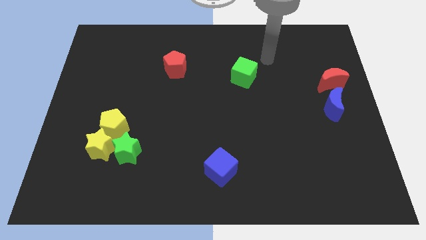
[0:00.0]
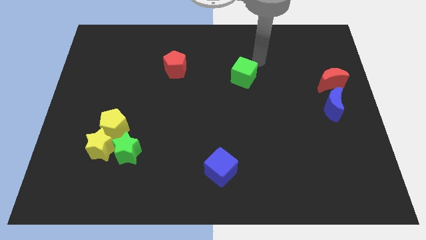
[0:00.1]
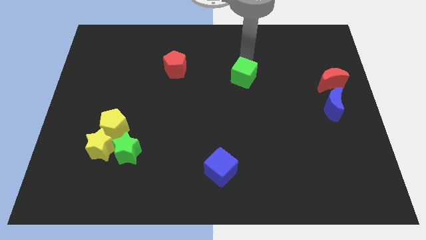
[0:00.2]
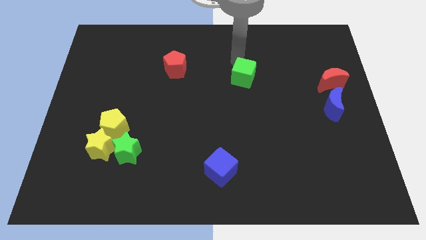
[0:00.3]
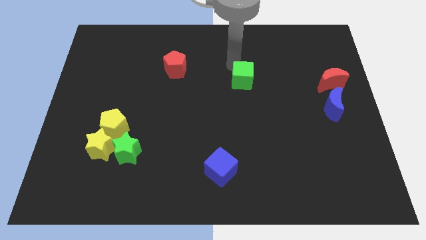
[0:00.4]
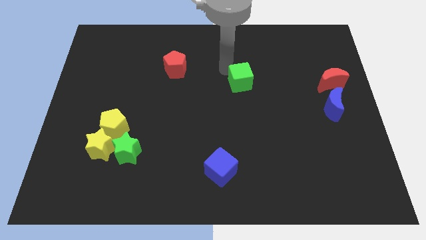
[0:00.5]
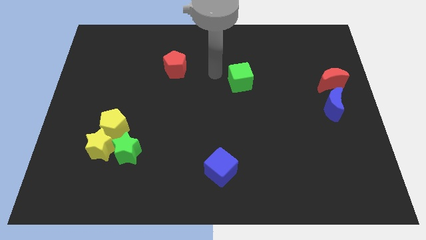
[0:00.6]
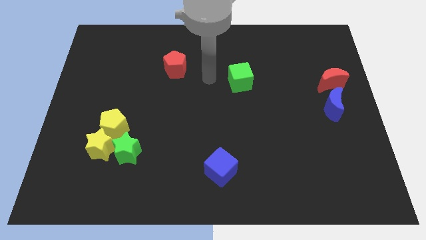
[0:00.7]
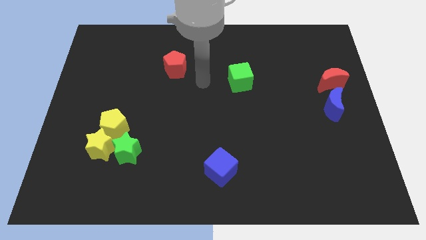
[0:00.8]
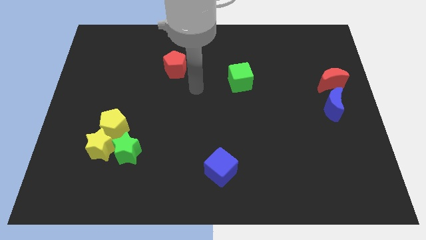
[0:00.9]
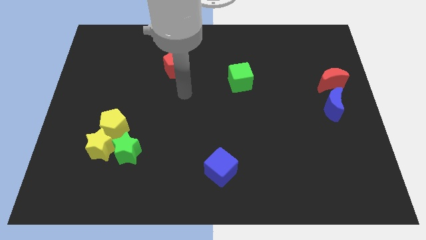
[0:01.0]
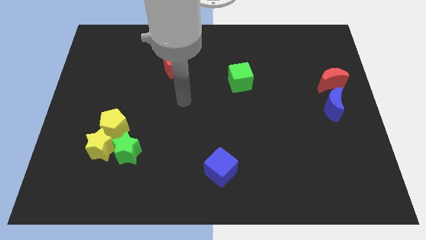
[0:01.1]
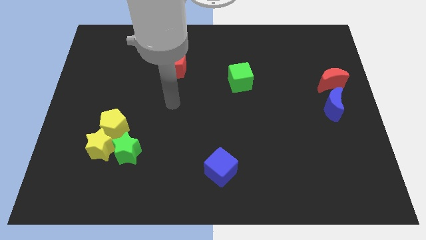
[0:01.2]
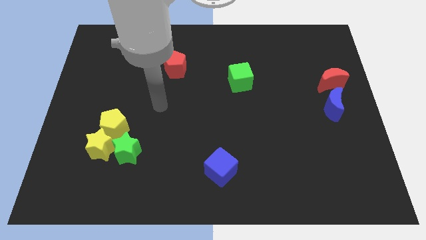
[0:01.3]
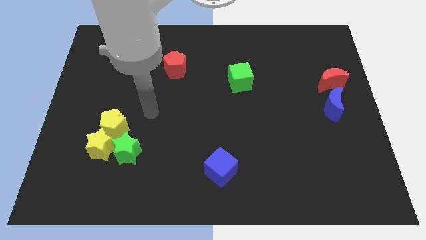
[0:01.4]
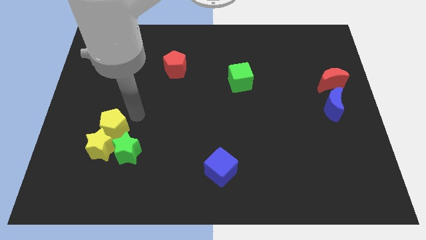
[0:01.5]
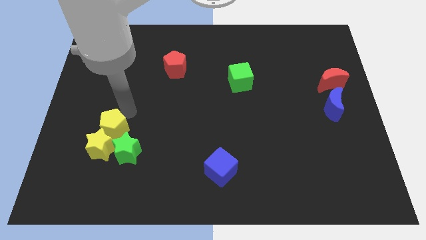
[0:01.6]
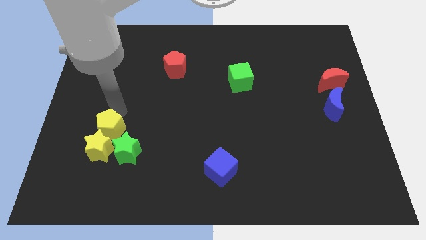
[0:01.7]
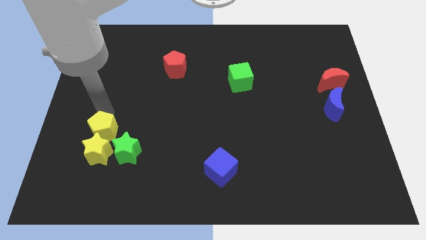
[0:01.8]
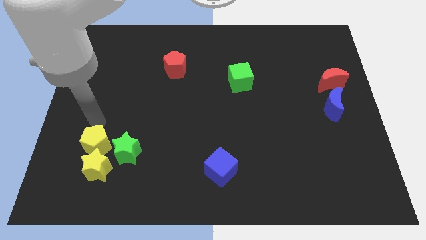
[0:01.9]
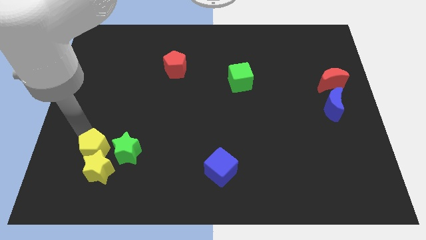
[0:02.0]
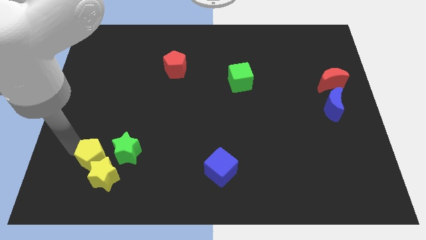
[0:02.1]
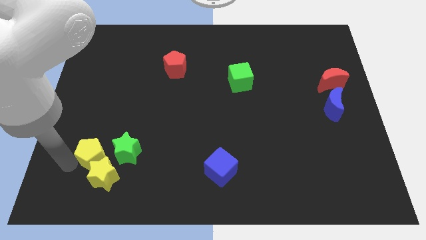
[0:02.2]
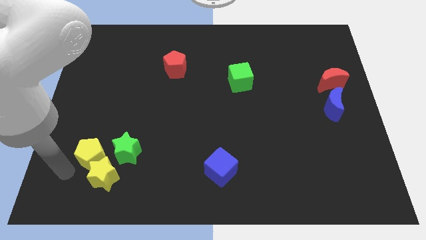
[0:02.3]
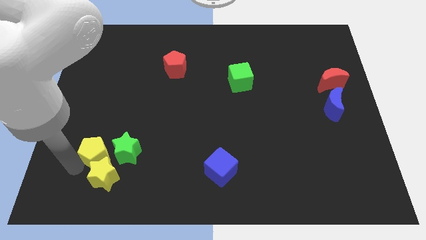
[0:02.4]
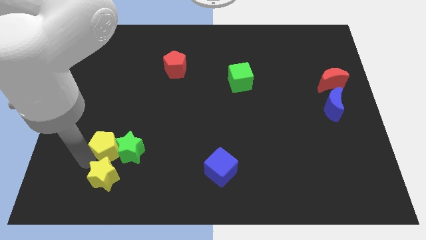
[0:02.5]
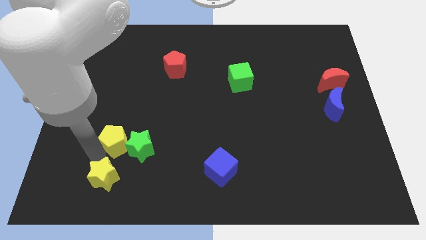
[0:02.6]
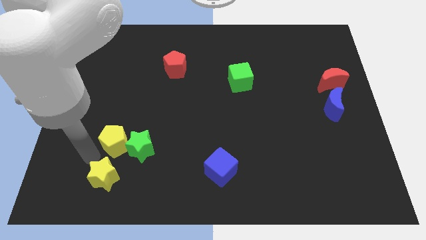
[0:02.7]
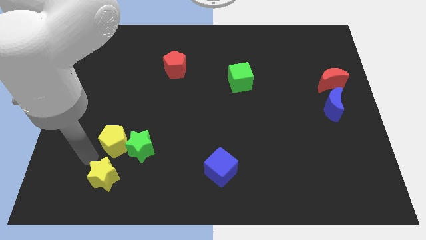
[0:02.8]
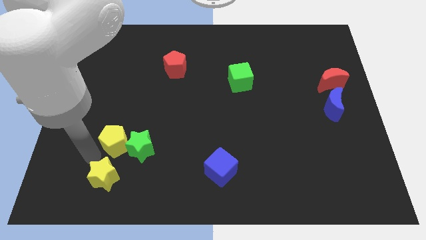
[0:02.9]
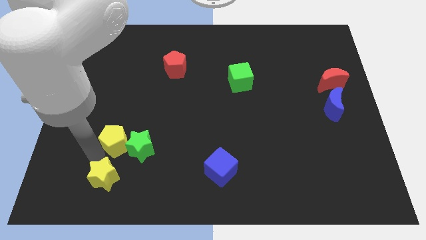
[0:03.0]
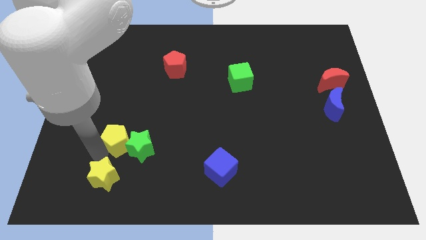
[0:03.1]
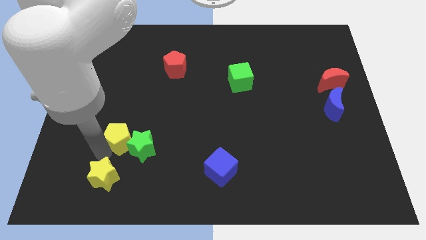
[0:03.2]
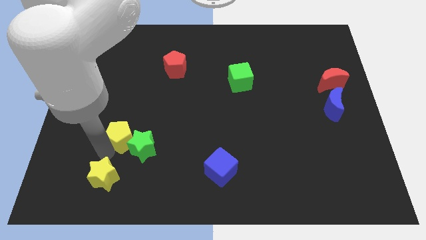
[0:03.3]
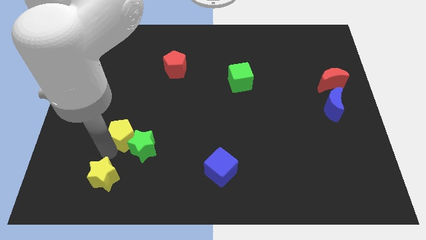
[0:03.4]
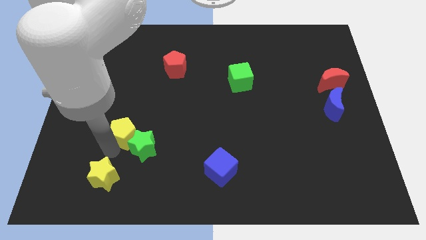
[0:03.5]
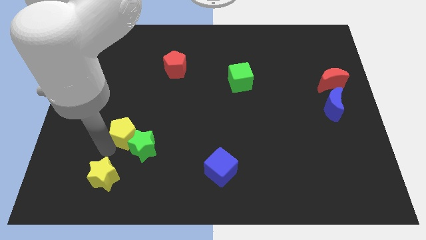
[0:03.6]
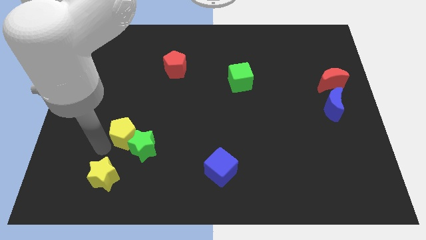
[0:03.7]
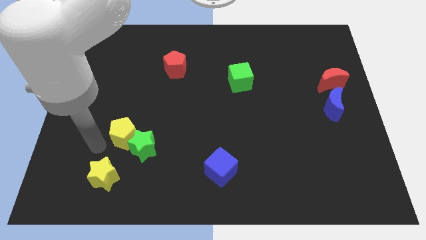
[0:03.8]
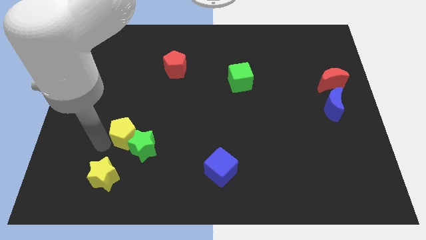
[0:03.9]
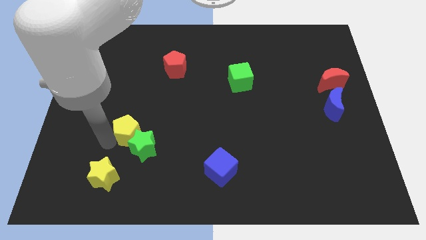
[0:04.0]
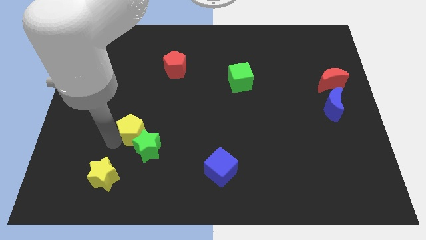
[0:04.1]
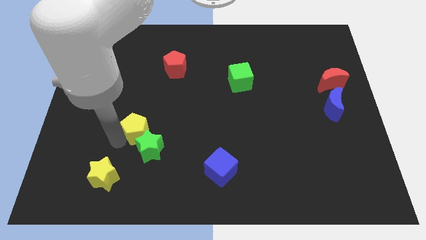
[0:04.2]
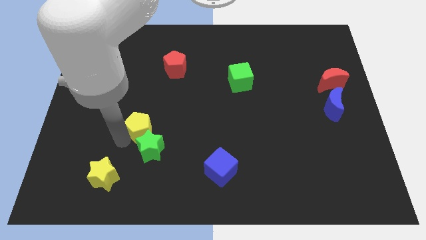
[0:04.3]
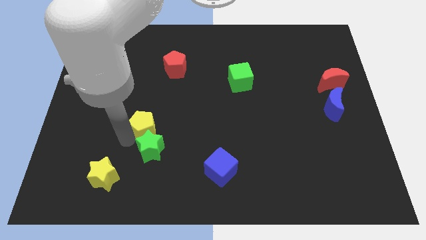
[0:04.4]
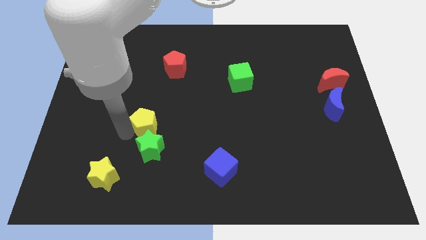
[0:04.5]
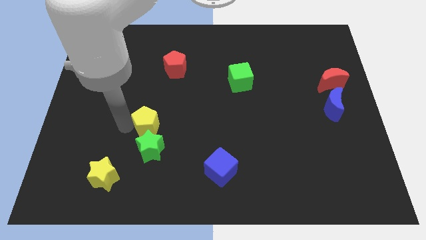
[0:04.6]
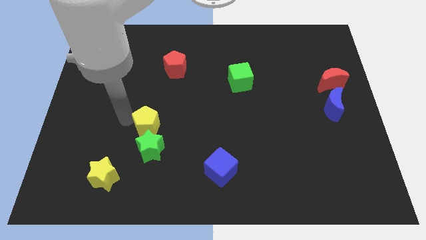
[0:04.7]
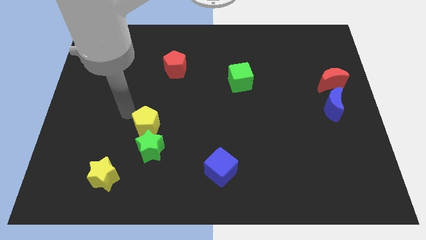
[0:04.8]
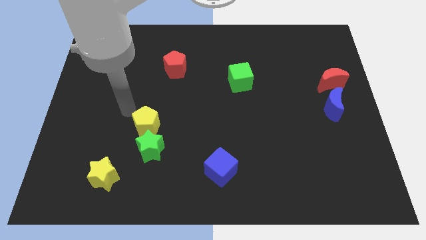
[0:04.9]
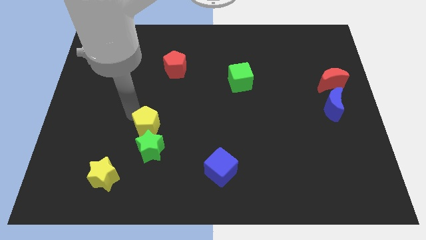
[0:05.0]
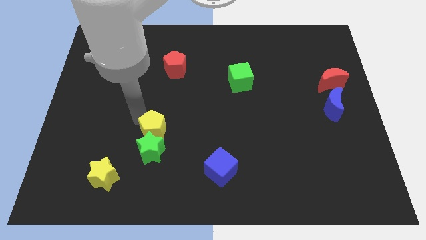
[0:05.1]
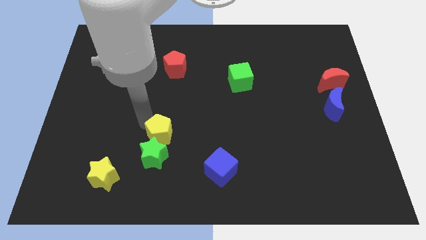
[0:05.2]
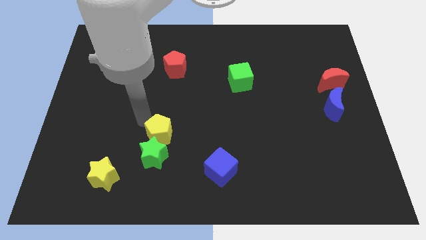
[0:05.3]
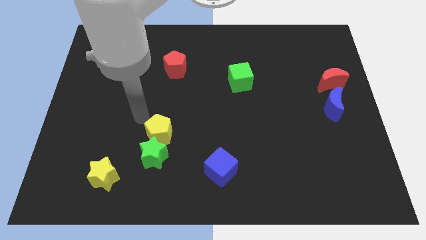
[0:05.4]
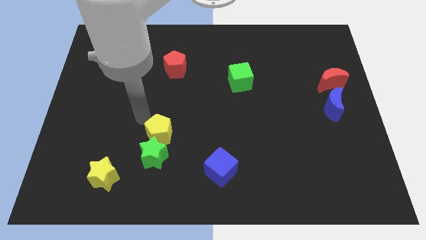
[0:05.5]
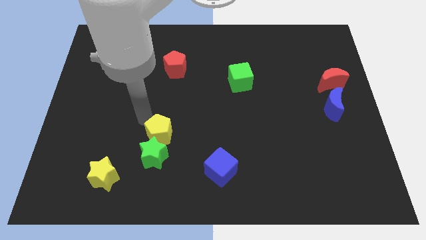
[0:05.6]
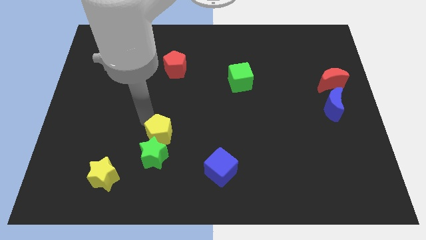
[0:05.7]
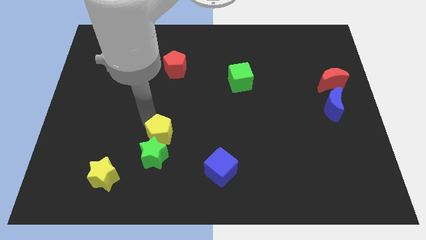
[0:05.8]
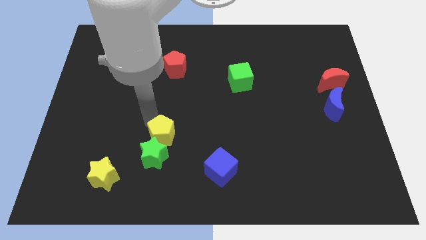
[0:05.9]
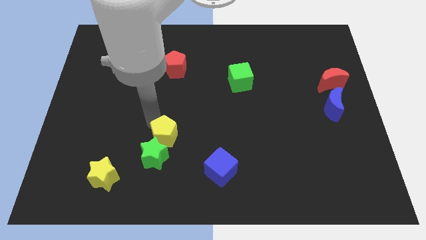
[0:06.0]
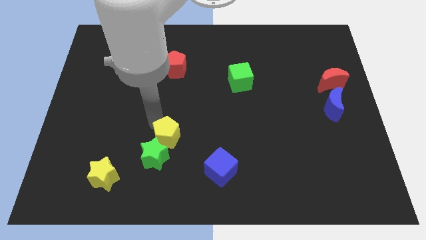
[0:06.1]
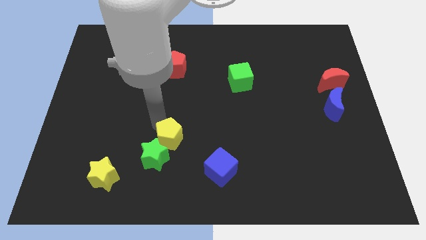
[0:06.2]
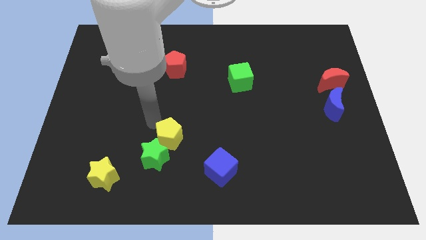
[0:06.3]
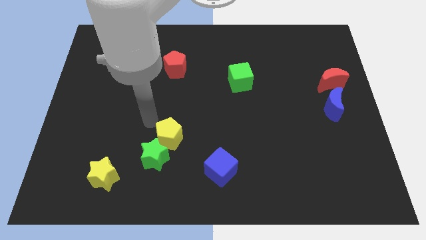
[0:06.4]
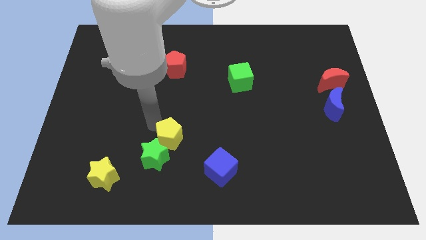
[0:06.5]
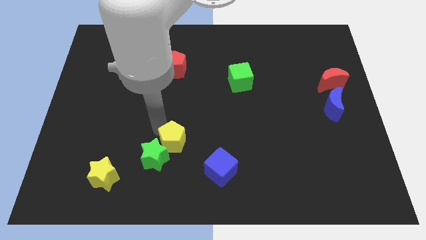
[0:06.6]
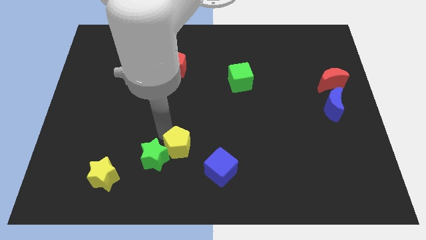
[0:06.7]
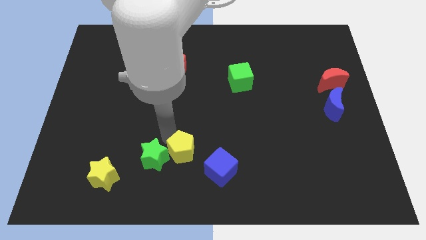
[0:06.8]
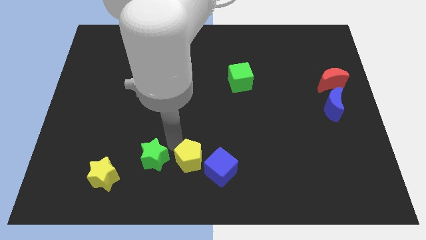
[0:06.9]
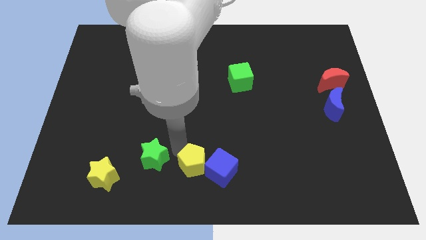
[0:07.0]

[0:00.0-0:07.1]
push the yellow pentagon towards the blue cube

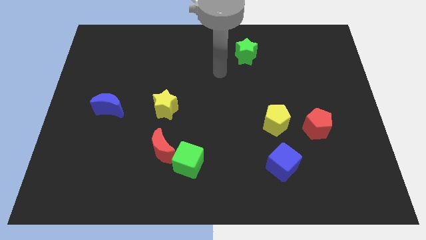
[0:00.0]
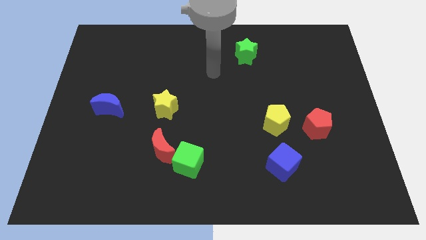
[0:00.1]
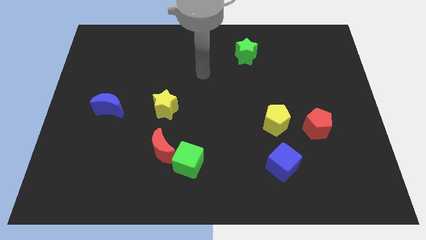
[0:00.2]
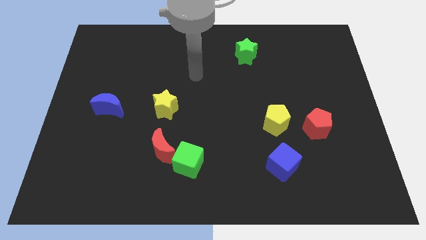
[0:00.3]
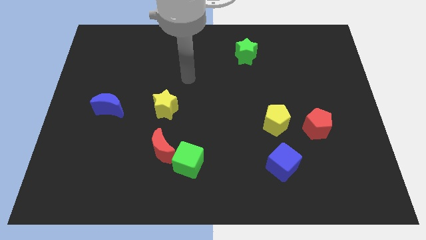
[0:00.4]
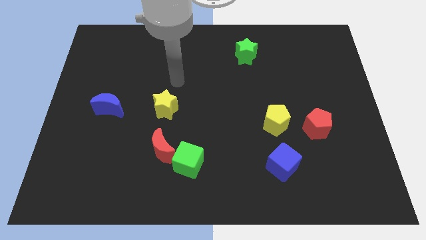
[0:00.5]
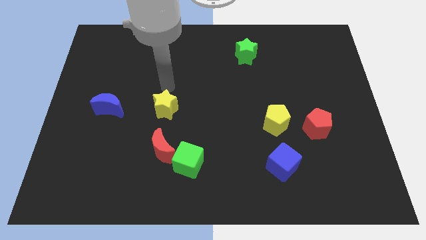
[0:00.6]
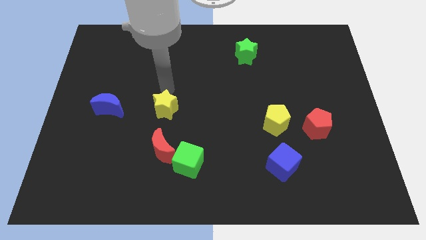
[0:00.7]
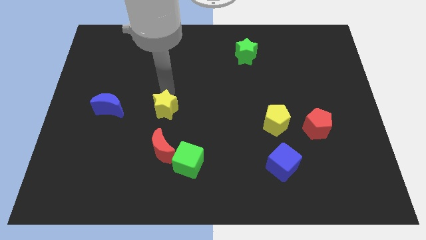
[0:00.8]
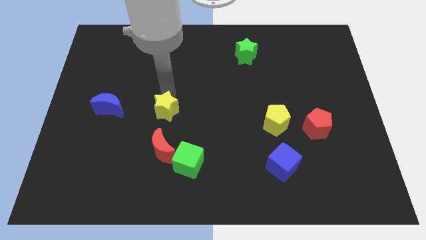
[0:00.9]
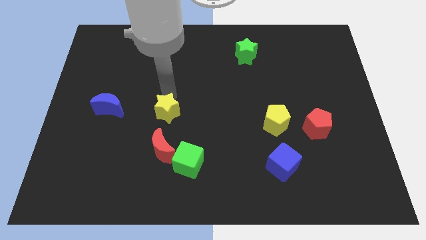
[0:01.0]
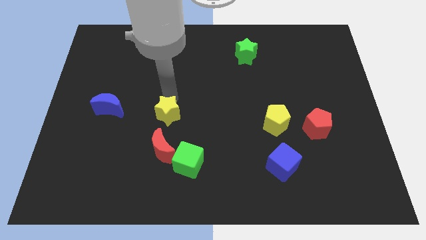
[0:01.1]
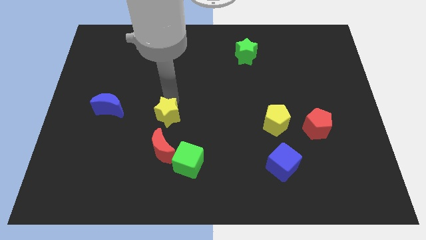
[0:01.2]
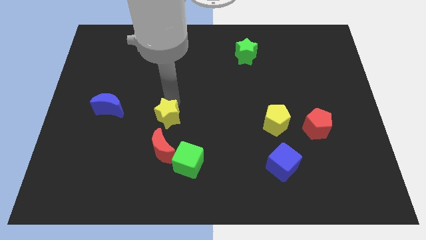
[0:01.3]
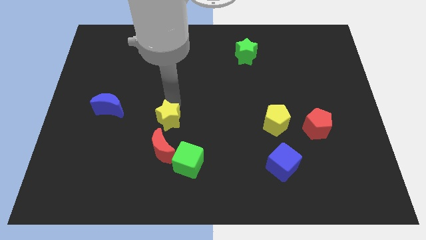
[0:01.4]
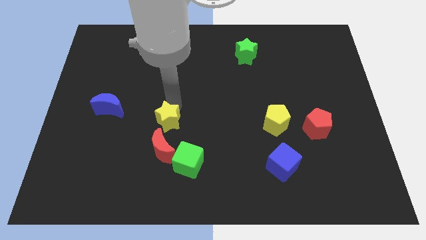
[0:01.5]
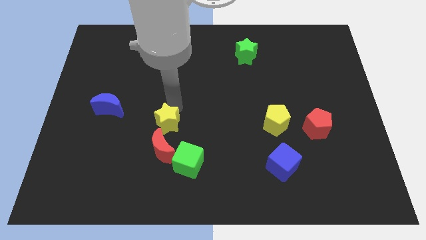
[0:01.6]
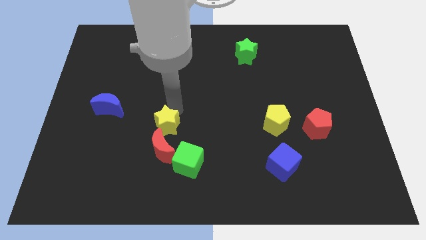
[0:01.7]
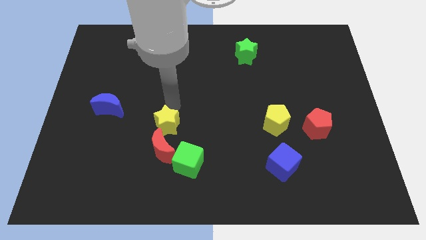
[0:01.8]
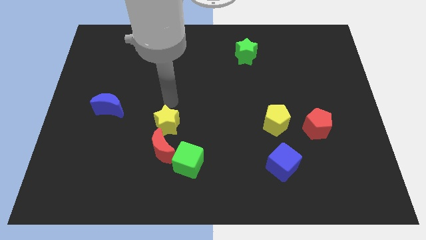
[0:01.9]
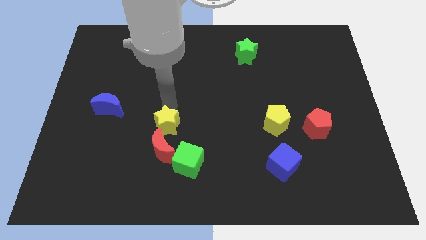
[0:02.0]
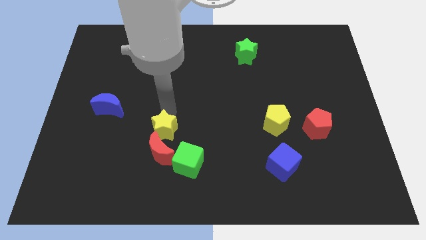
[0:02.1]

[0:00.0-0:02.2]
push the yellow star towards the red moon
